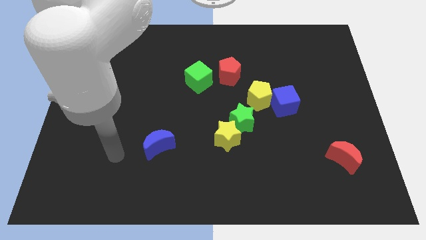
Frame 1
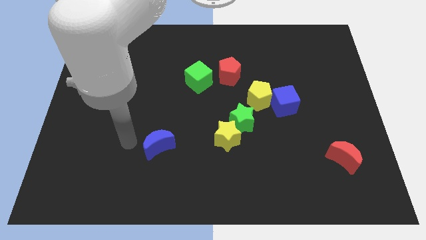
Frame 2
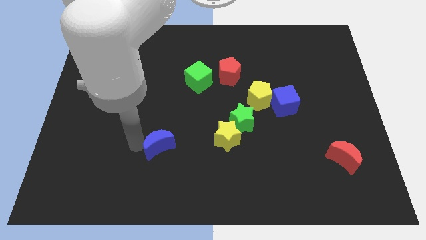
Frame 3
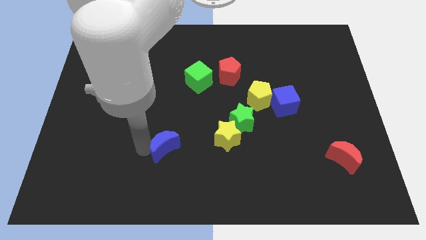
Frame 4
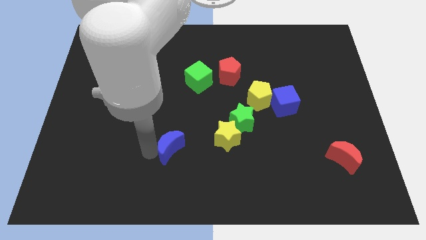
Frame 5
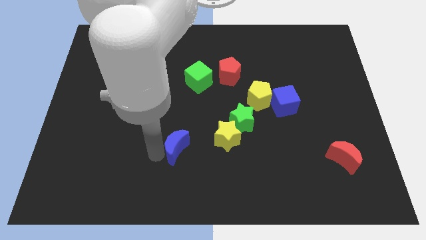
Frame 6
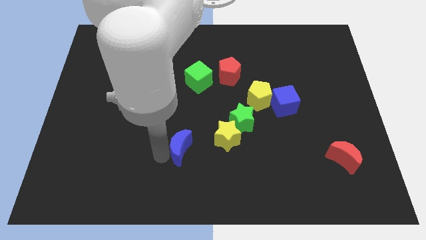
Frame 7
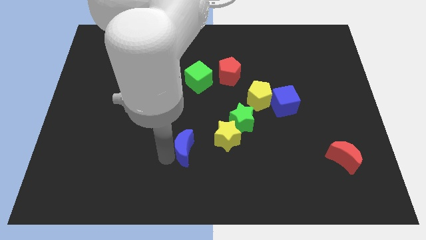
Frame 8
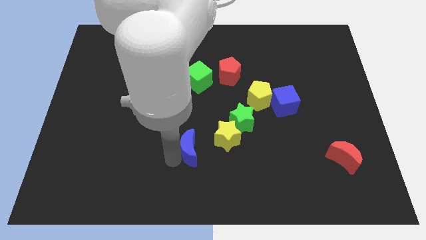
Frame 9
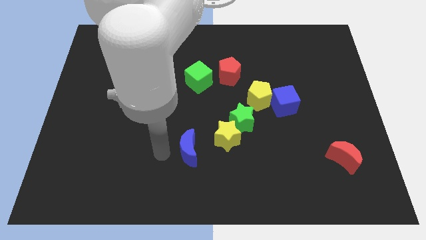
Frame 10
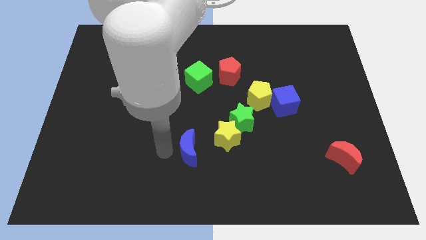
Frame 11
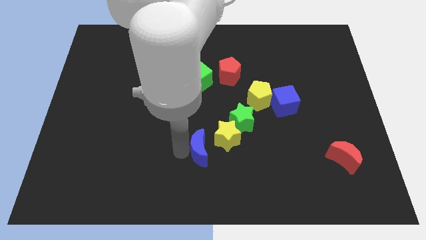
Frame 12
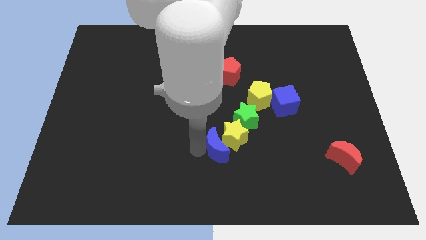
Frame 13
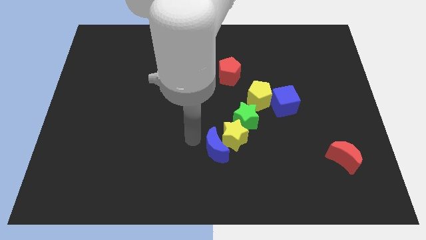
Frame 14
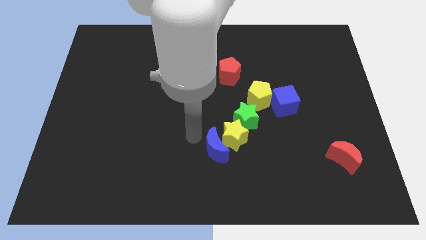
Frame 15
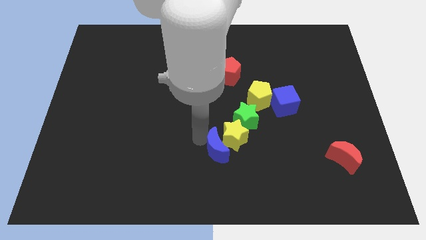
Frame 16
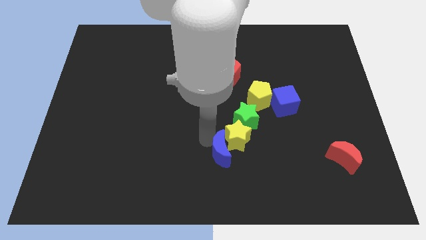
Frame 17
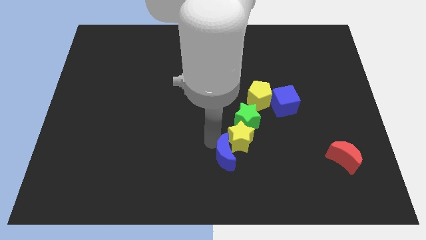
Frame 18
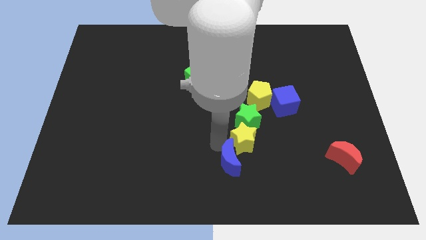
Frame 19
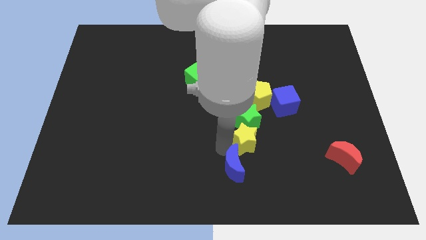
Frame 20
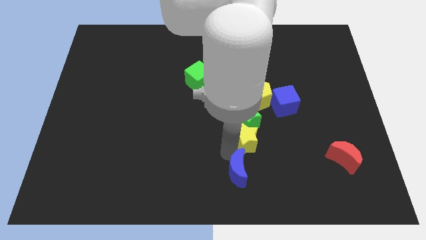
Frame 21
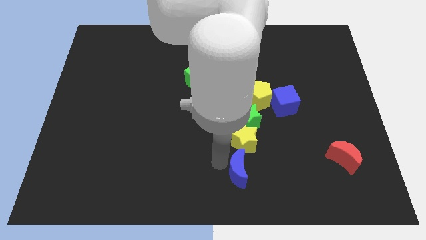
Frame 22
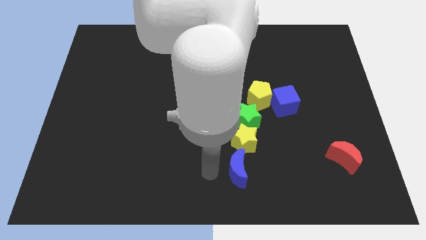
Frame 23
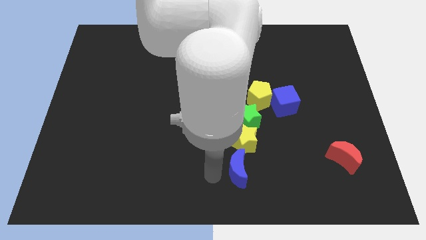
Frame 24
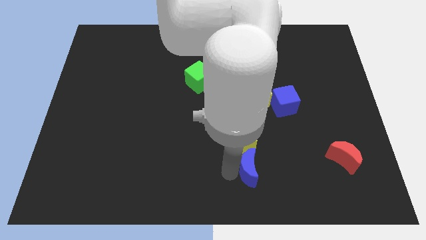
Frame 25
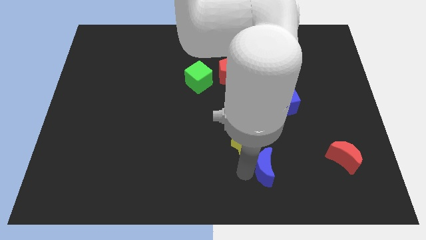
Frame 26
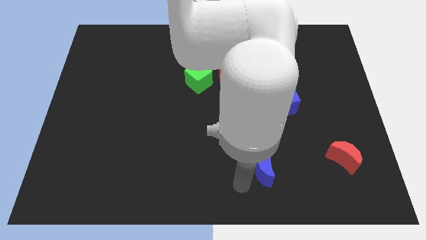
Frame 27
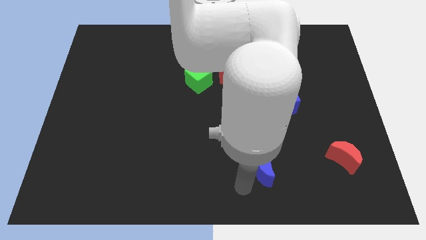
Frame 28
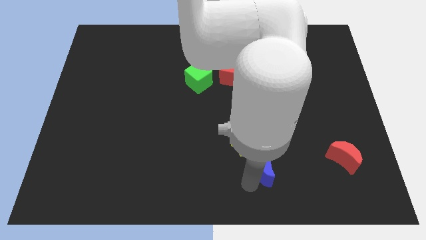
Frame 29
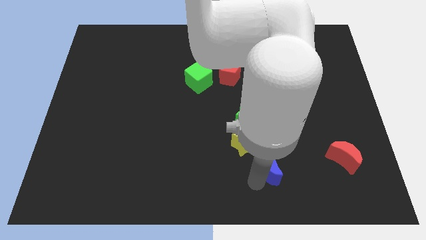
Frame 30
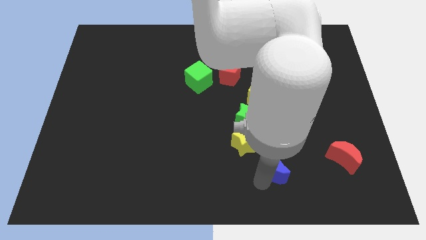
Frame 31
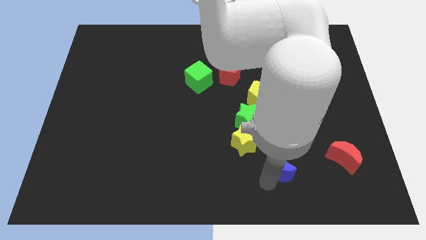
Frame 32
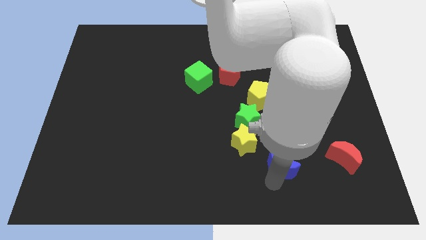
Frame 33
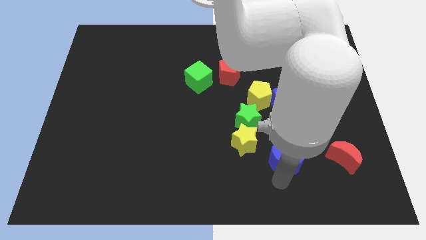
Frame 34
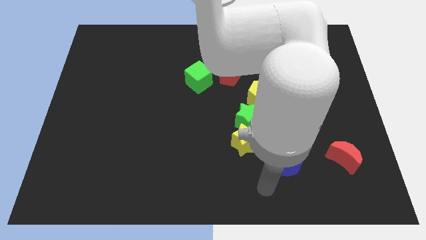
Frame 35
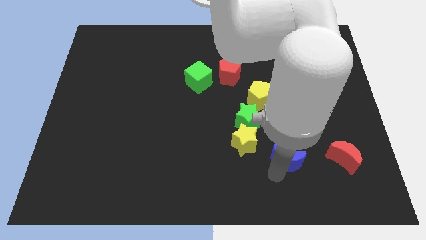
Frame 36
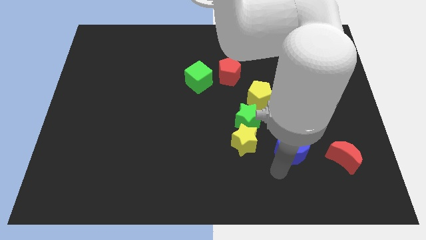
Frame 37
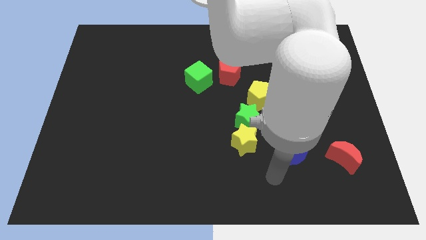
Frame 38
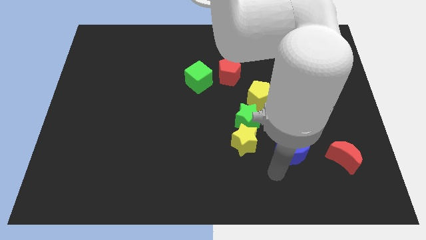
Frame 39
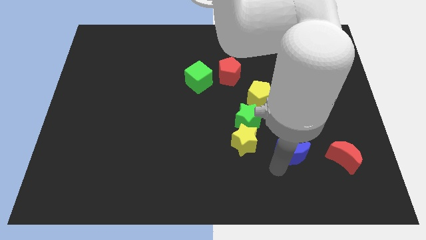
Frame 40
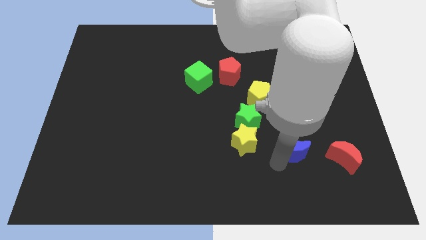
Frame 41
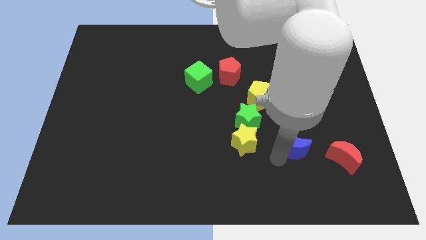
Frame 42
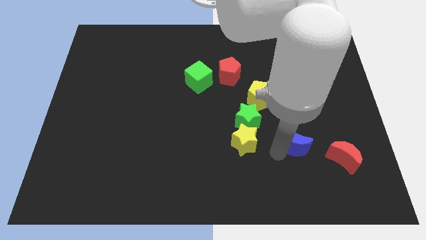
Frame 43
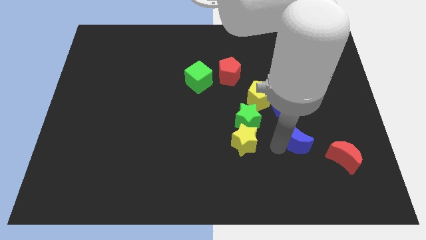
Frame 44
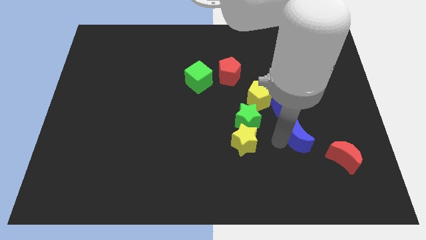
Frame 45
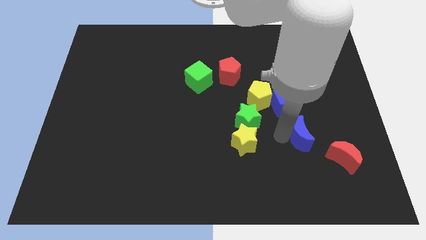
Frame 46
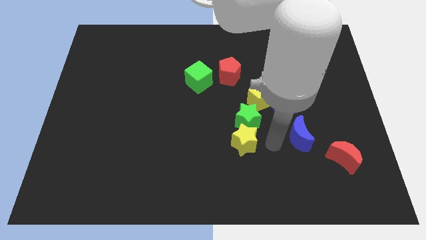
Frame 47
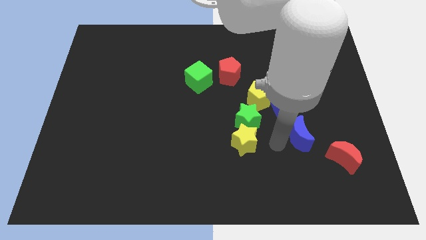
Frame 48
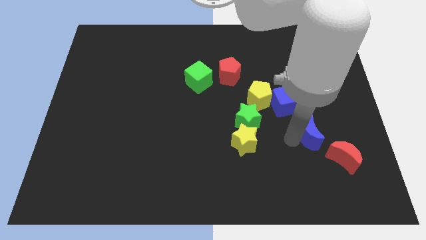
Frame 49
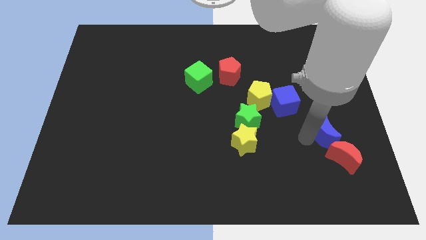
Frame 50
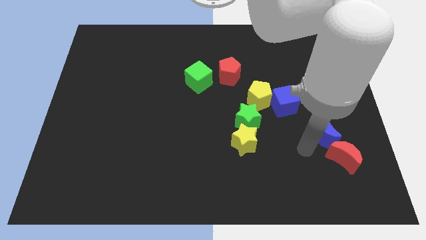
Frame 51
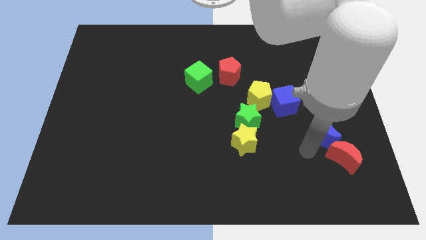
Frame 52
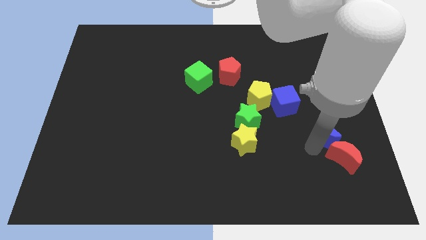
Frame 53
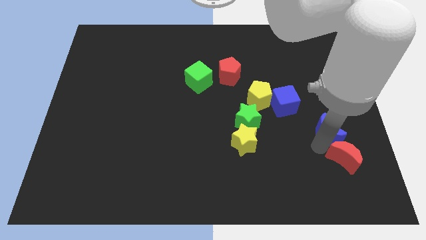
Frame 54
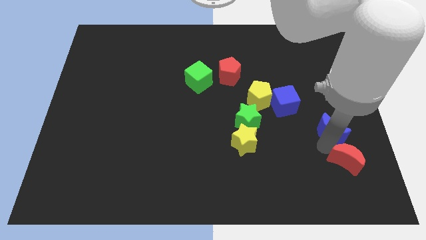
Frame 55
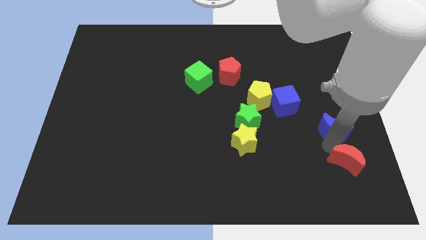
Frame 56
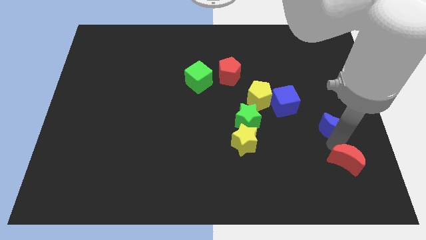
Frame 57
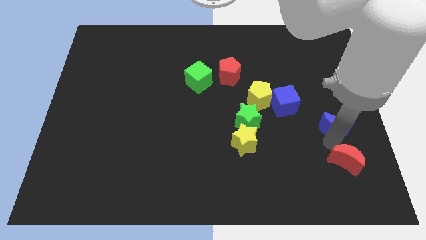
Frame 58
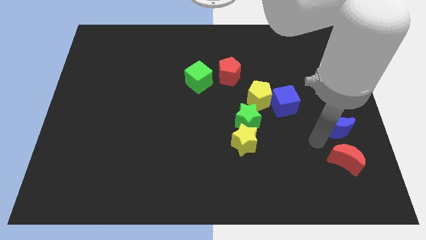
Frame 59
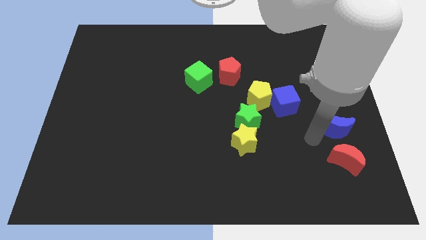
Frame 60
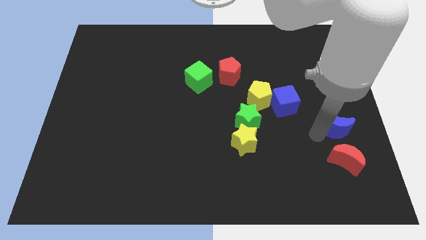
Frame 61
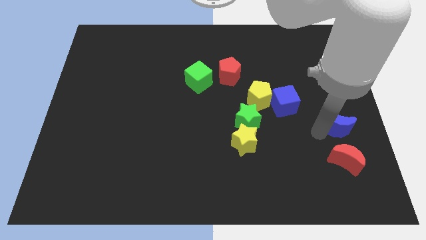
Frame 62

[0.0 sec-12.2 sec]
move the blue moon to the right side
